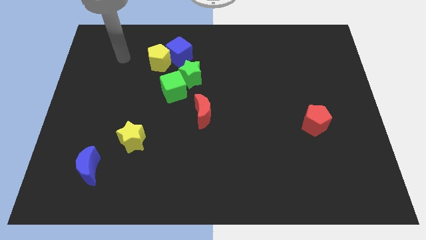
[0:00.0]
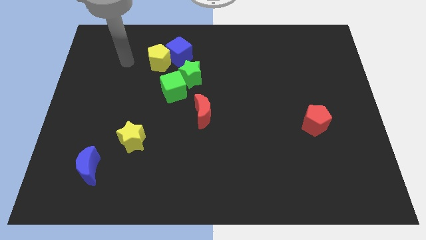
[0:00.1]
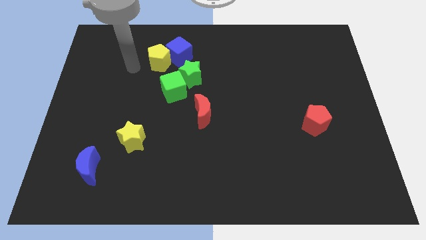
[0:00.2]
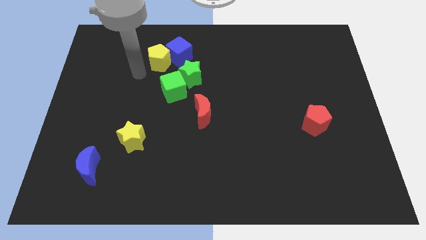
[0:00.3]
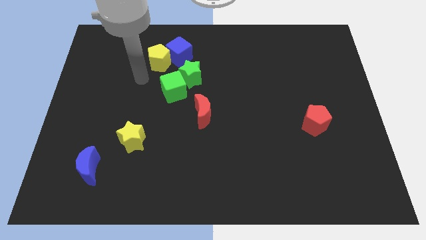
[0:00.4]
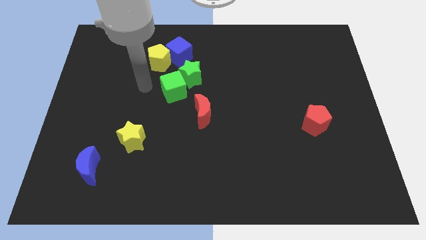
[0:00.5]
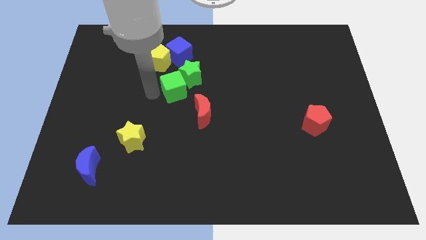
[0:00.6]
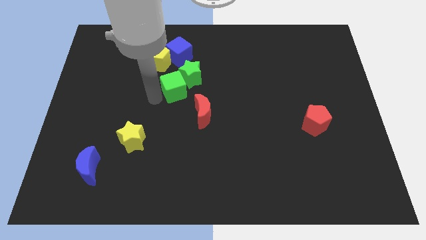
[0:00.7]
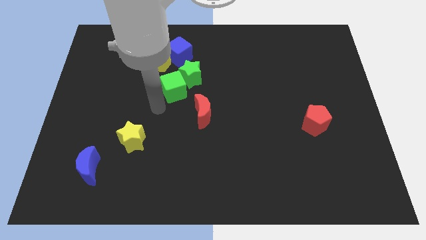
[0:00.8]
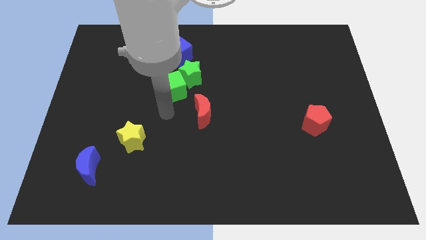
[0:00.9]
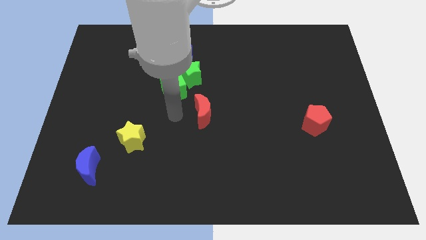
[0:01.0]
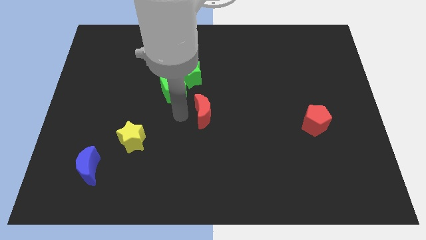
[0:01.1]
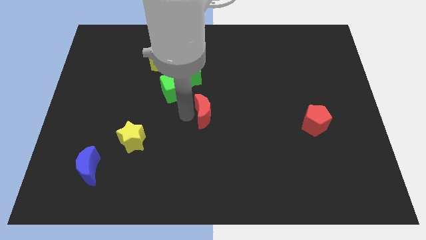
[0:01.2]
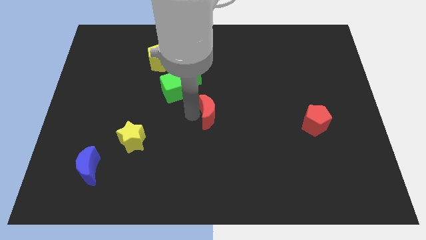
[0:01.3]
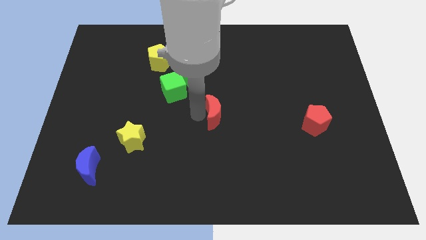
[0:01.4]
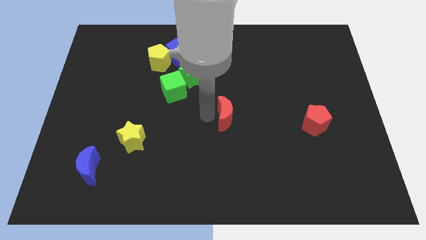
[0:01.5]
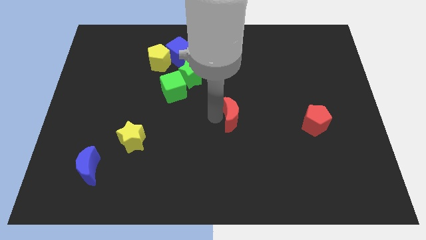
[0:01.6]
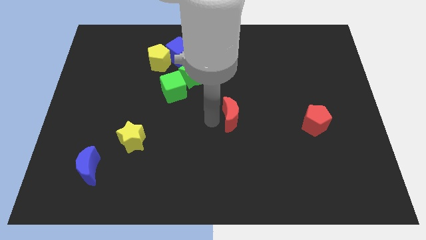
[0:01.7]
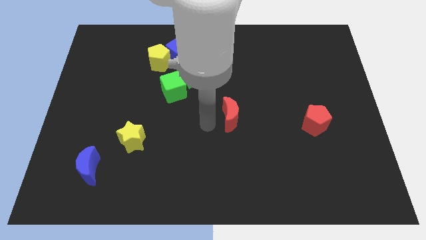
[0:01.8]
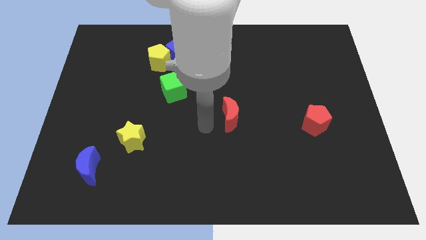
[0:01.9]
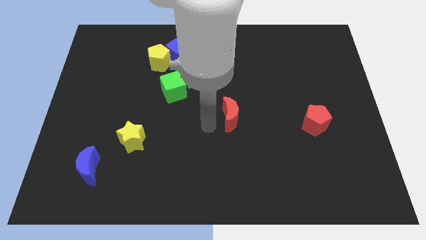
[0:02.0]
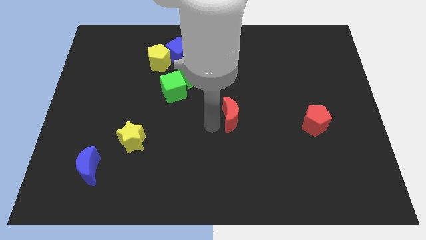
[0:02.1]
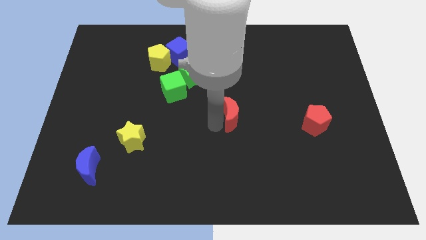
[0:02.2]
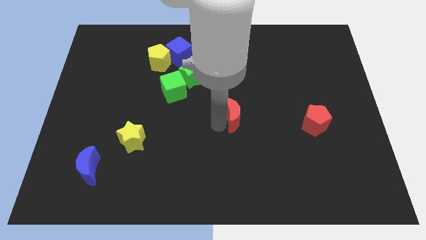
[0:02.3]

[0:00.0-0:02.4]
move the red moon to the right slightly

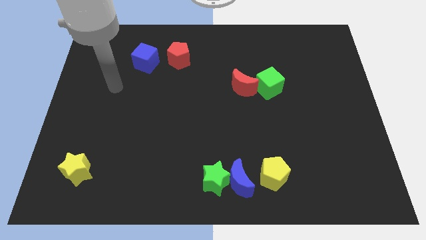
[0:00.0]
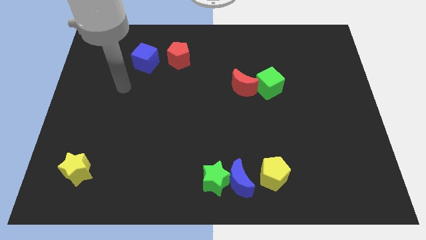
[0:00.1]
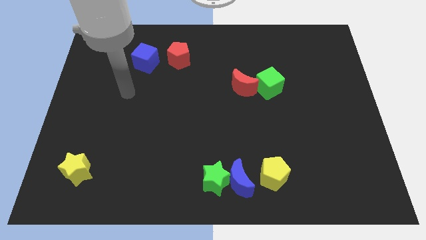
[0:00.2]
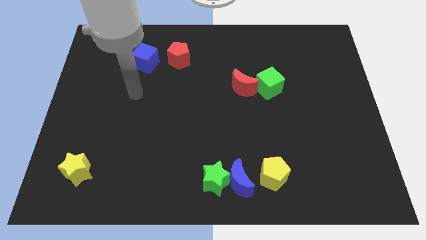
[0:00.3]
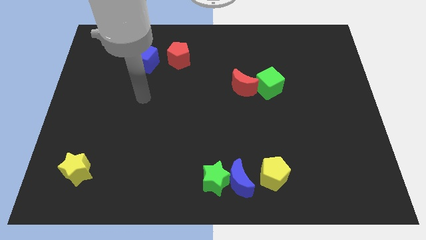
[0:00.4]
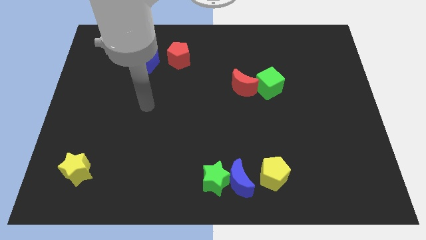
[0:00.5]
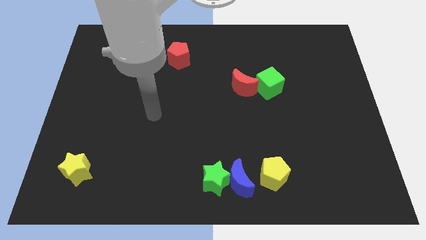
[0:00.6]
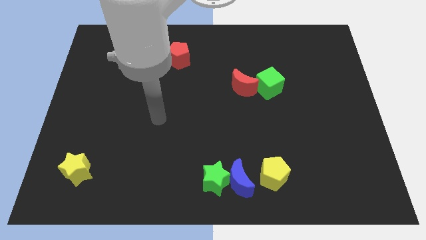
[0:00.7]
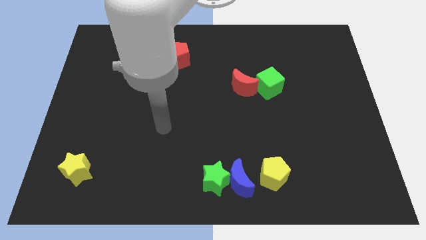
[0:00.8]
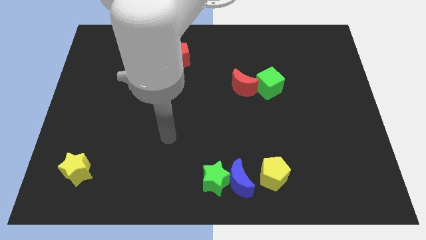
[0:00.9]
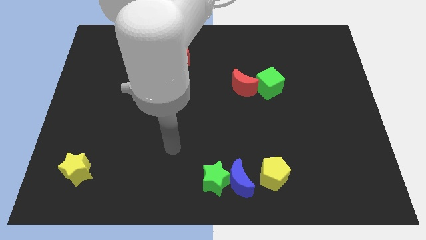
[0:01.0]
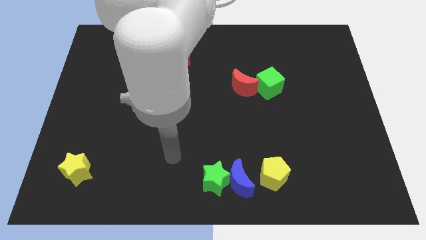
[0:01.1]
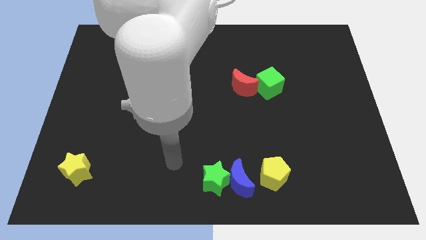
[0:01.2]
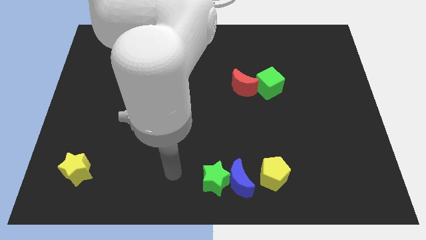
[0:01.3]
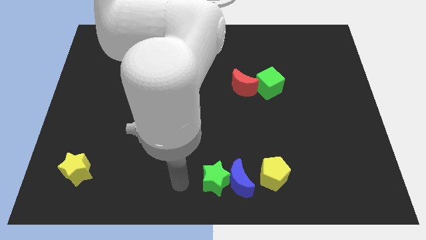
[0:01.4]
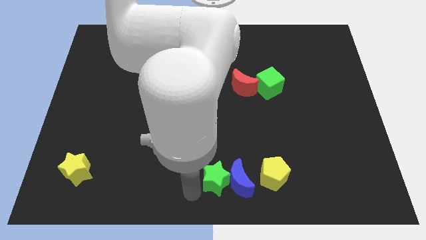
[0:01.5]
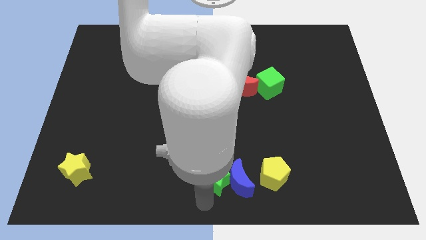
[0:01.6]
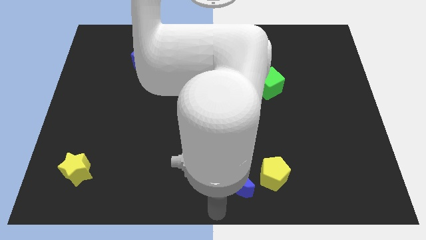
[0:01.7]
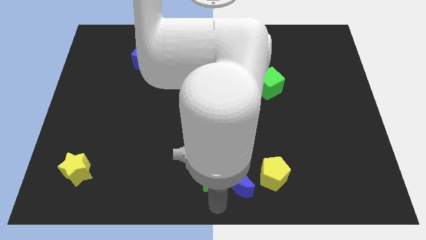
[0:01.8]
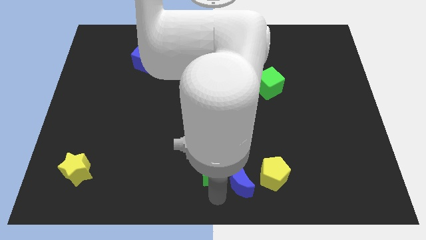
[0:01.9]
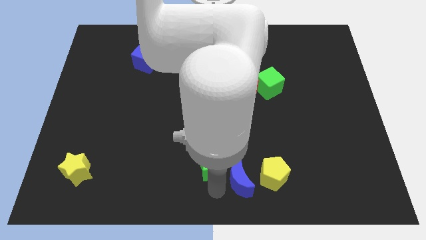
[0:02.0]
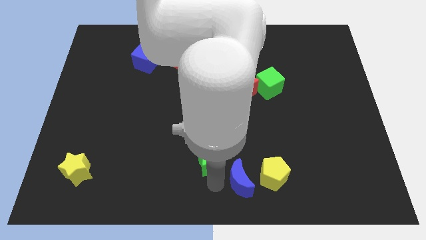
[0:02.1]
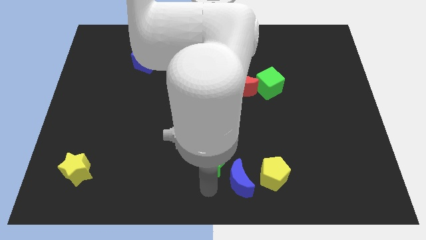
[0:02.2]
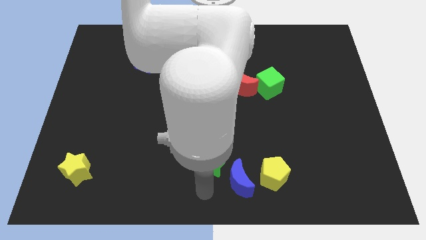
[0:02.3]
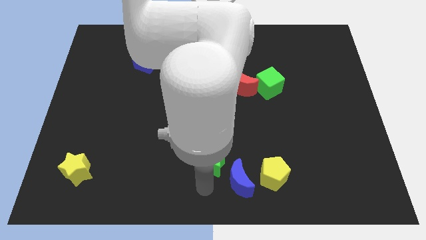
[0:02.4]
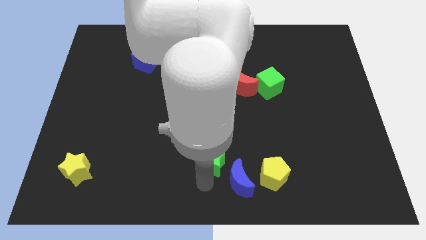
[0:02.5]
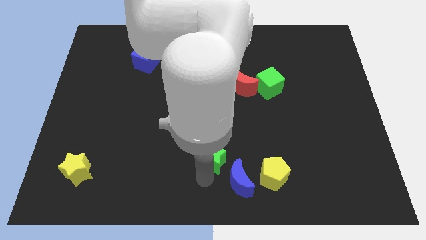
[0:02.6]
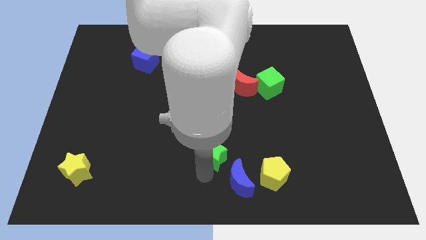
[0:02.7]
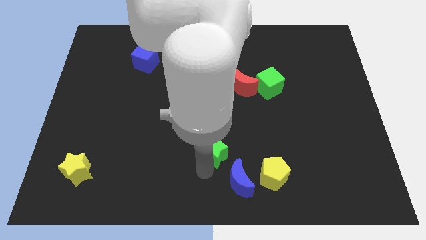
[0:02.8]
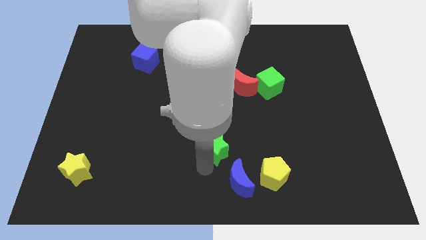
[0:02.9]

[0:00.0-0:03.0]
slightly slide the green star up

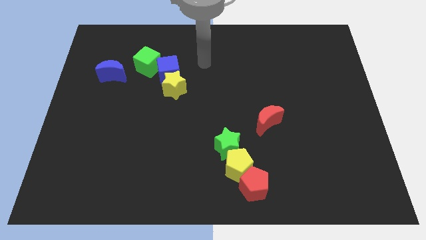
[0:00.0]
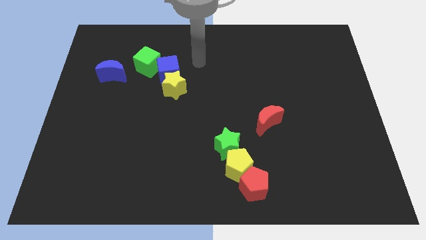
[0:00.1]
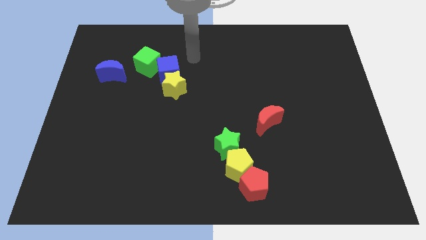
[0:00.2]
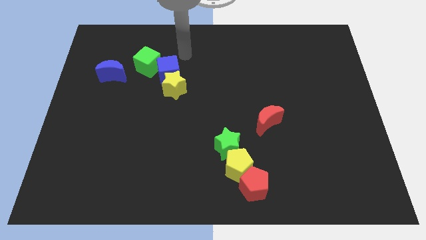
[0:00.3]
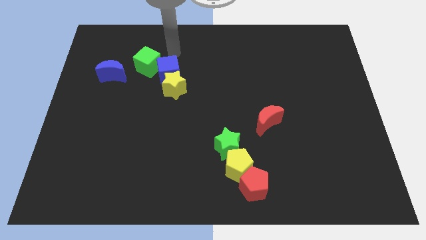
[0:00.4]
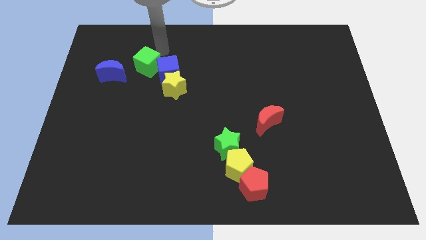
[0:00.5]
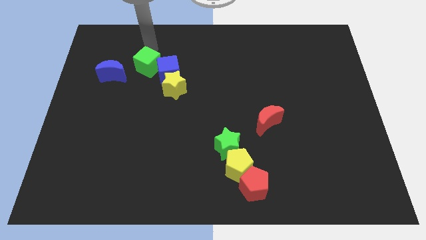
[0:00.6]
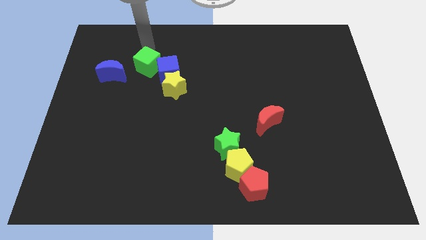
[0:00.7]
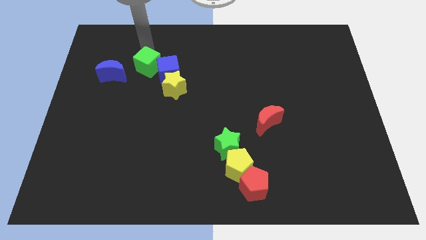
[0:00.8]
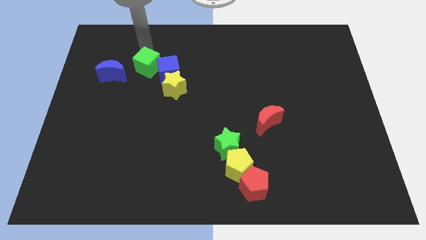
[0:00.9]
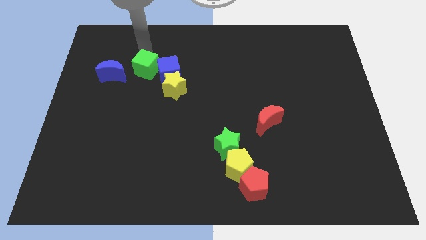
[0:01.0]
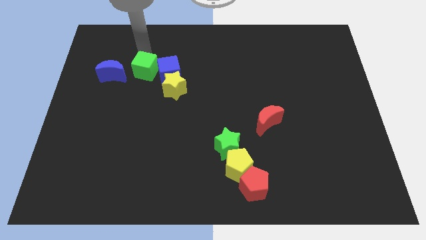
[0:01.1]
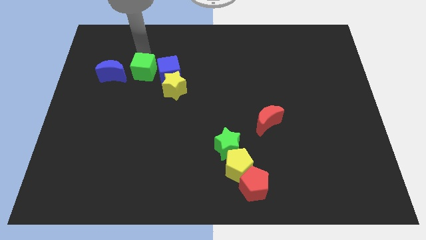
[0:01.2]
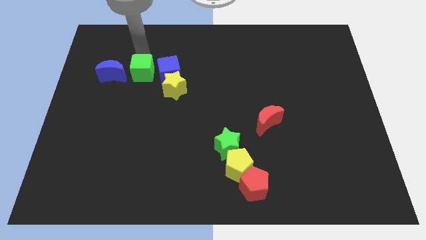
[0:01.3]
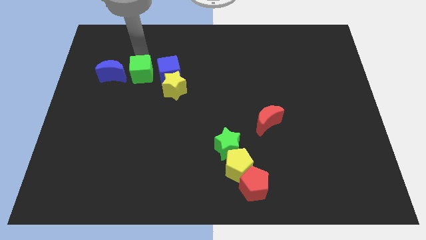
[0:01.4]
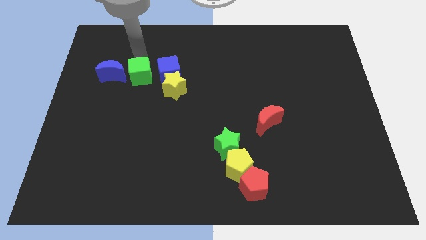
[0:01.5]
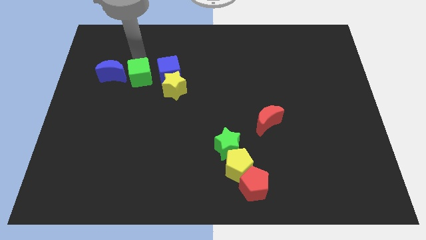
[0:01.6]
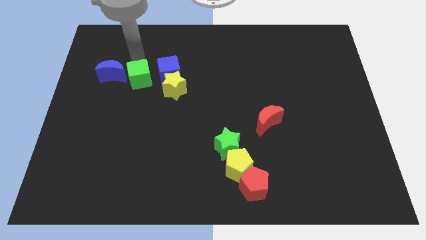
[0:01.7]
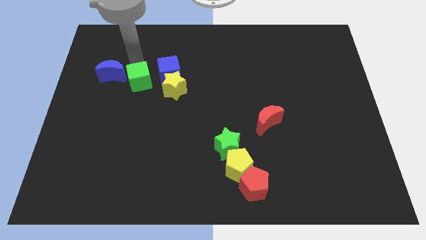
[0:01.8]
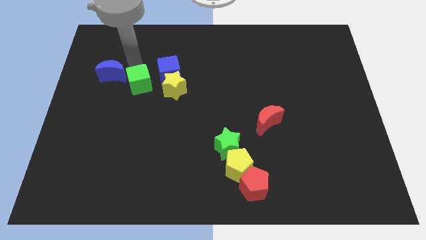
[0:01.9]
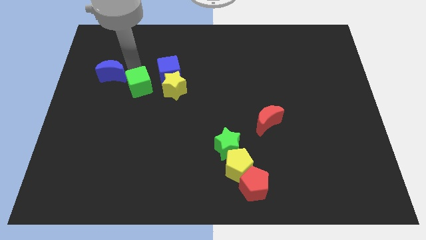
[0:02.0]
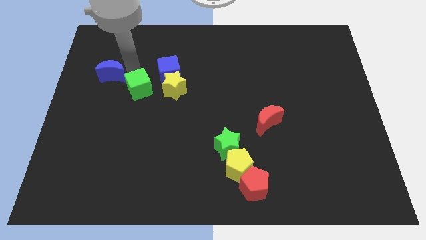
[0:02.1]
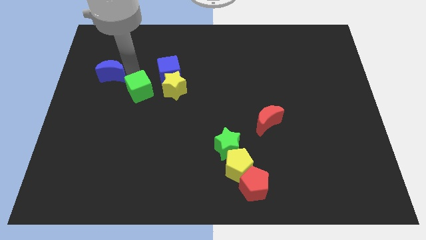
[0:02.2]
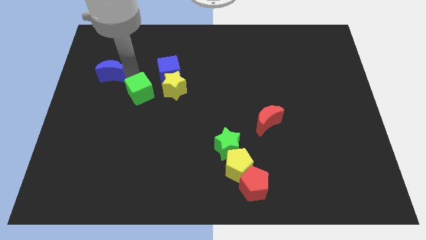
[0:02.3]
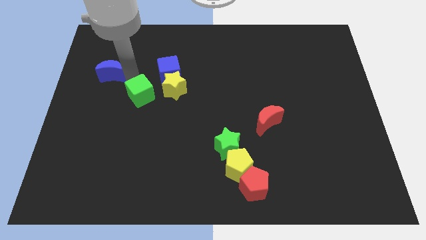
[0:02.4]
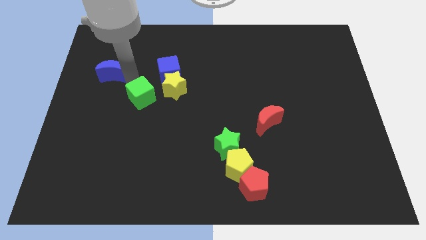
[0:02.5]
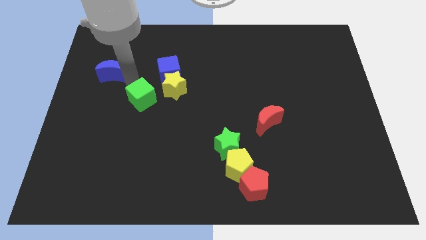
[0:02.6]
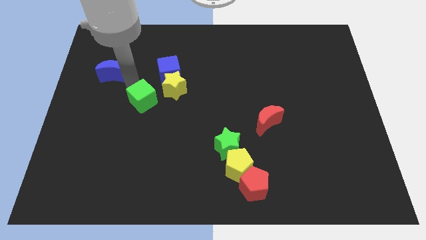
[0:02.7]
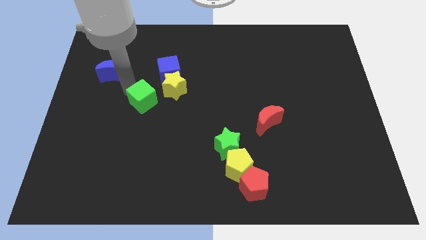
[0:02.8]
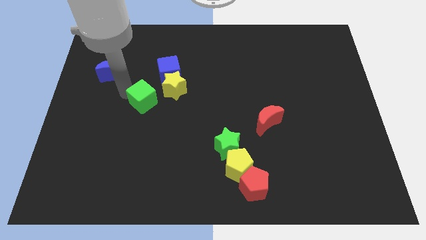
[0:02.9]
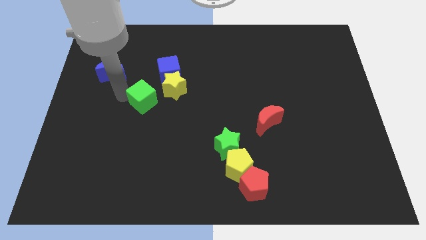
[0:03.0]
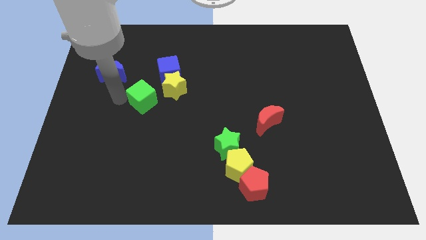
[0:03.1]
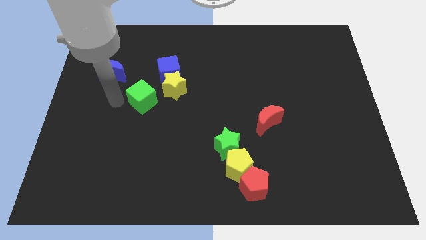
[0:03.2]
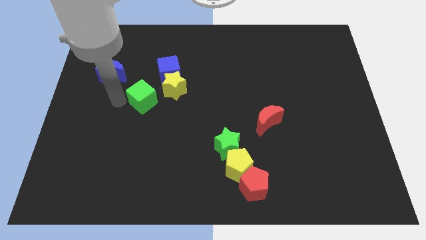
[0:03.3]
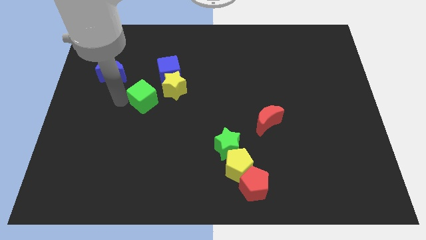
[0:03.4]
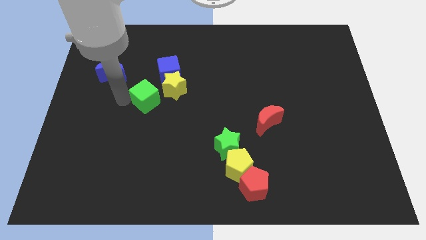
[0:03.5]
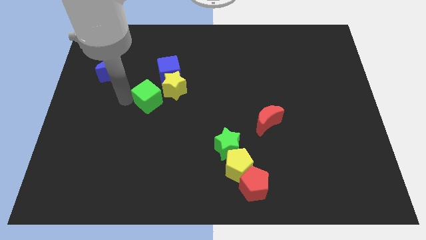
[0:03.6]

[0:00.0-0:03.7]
move the green cube a little downwards and to the right diagonally
